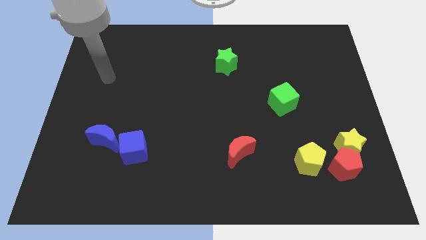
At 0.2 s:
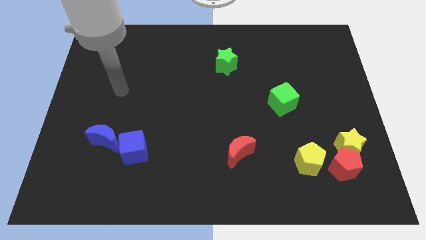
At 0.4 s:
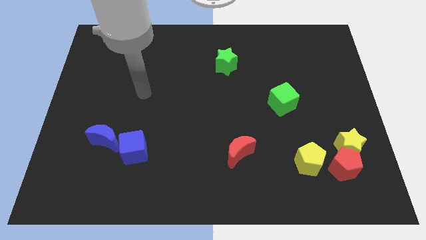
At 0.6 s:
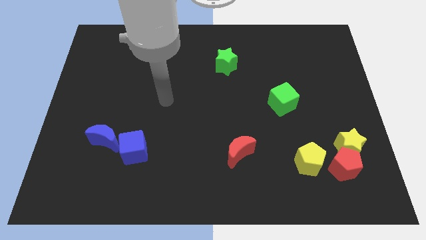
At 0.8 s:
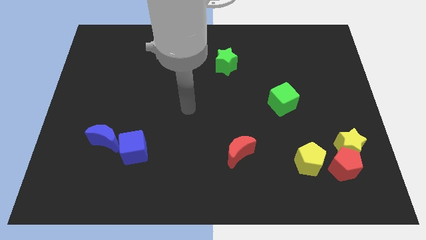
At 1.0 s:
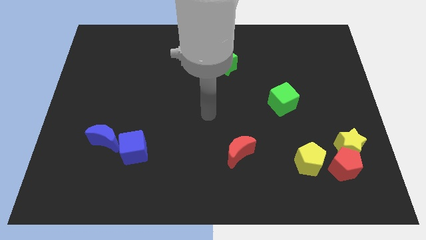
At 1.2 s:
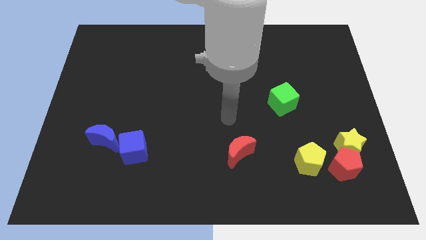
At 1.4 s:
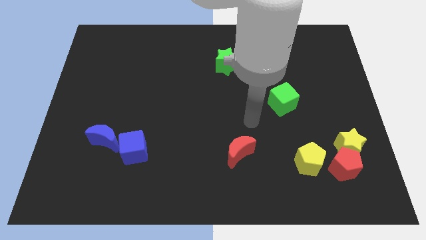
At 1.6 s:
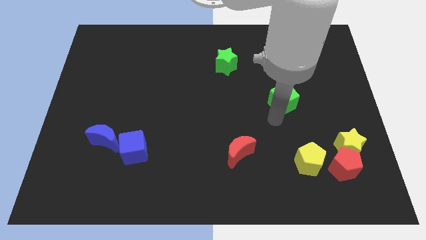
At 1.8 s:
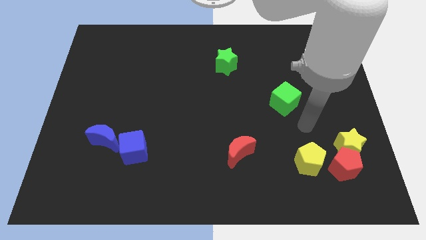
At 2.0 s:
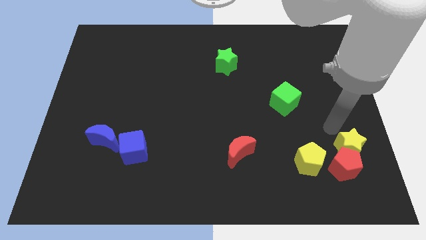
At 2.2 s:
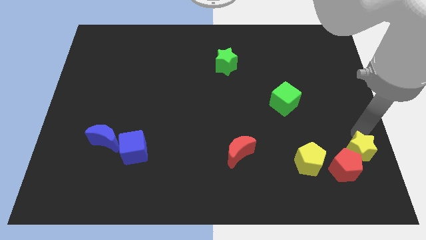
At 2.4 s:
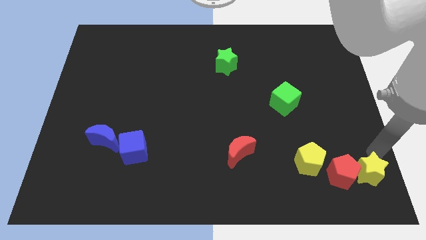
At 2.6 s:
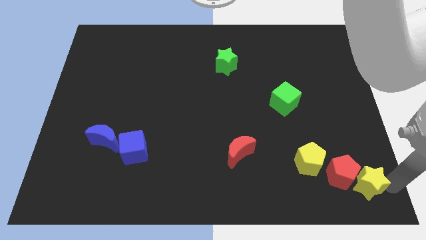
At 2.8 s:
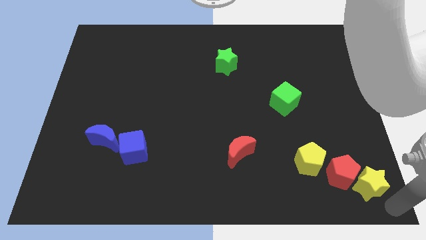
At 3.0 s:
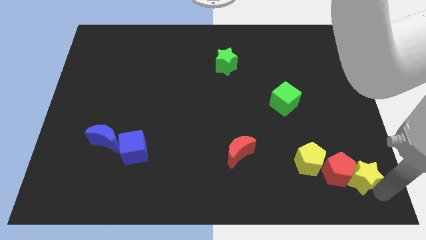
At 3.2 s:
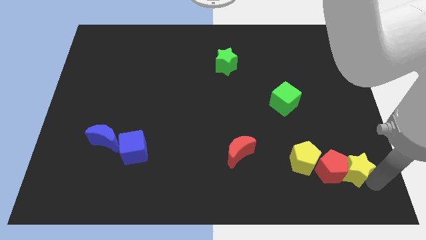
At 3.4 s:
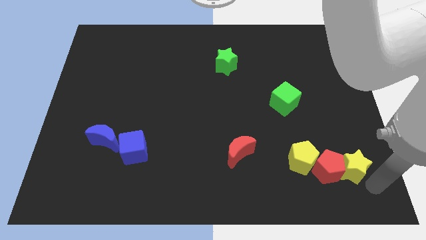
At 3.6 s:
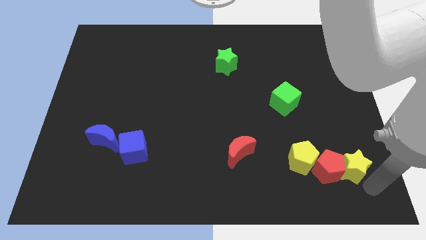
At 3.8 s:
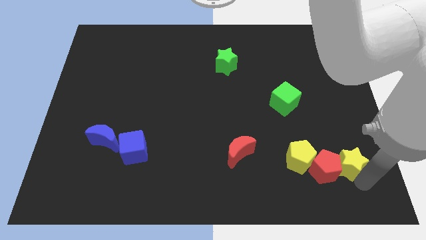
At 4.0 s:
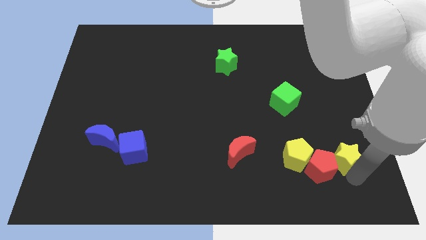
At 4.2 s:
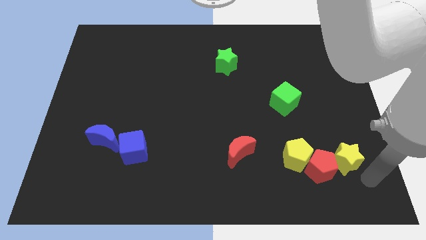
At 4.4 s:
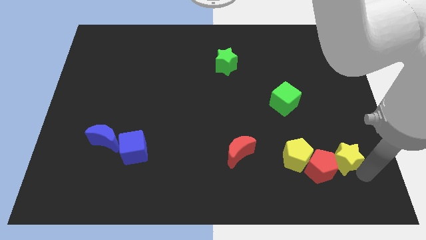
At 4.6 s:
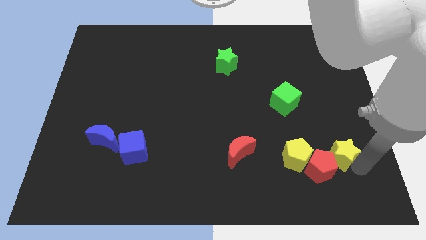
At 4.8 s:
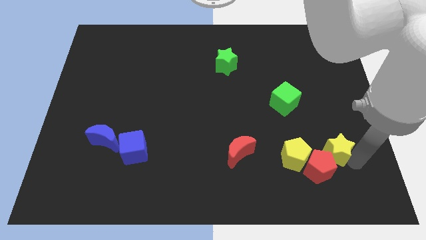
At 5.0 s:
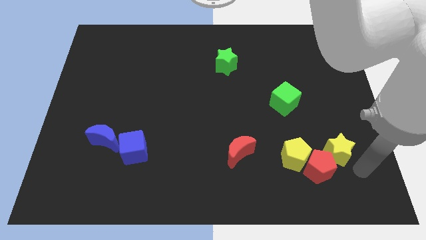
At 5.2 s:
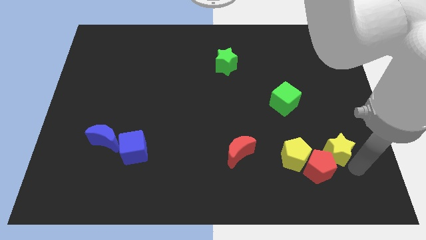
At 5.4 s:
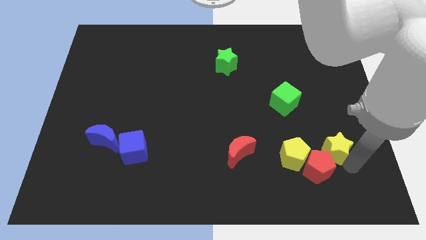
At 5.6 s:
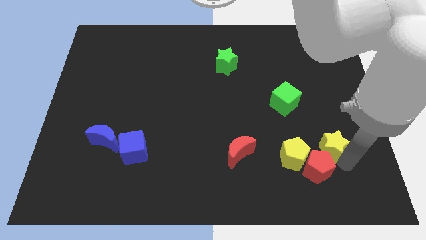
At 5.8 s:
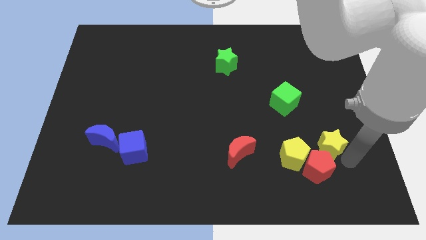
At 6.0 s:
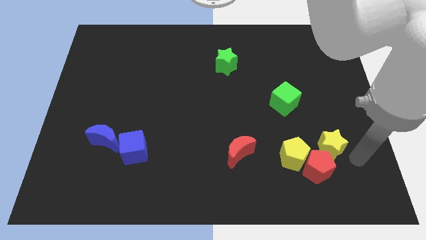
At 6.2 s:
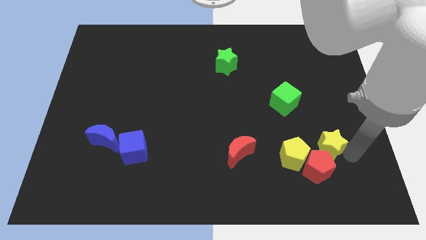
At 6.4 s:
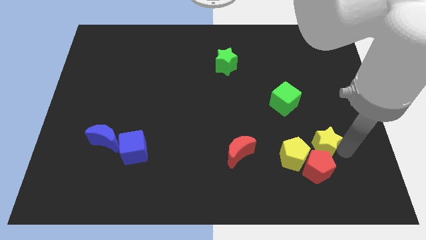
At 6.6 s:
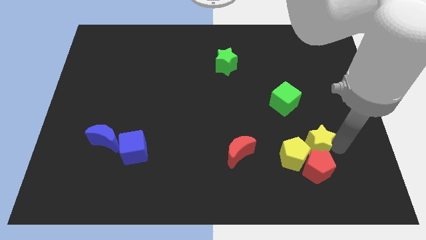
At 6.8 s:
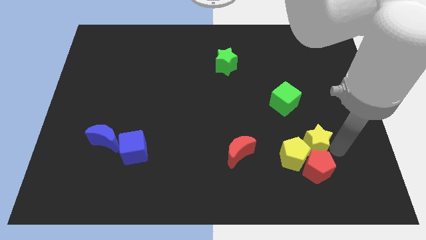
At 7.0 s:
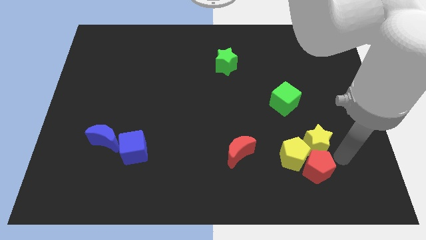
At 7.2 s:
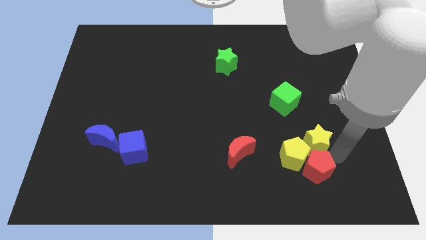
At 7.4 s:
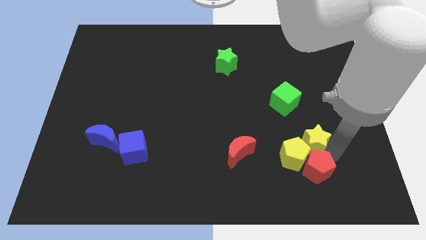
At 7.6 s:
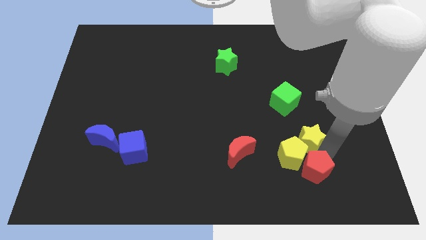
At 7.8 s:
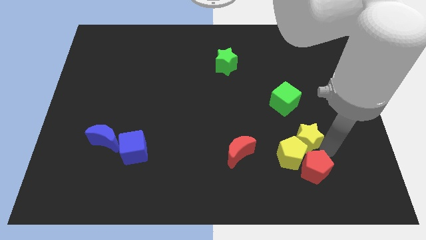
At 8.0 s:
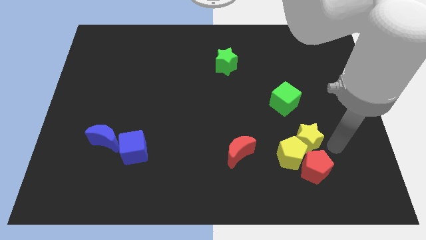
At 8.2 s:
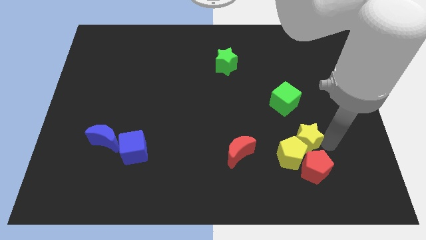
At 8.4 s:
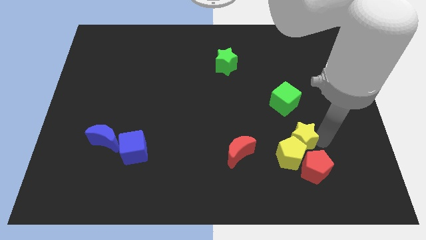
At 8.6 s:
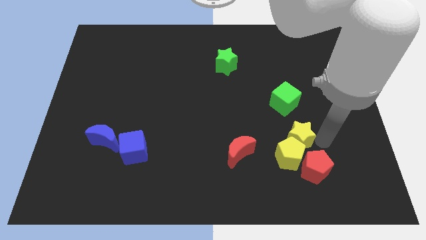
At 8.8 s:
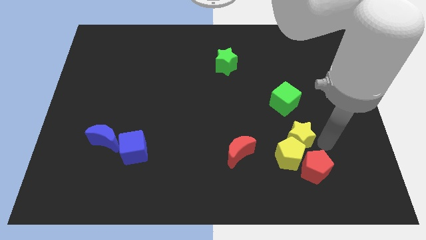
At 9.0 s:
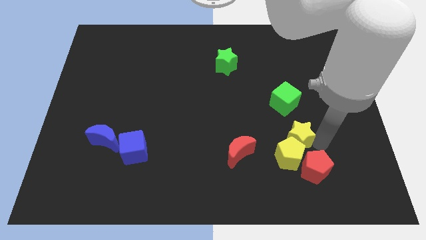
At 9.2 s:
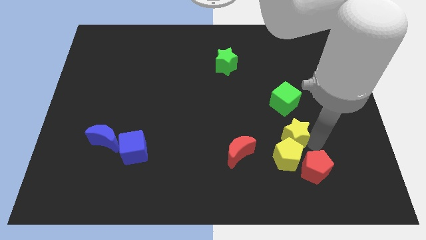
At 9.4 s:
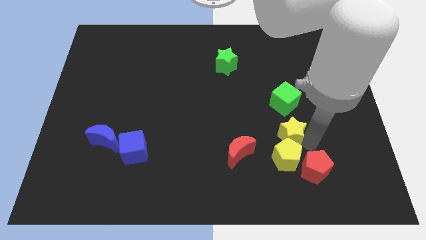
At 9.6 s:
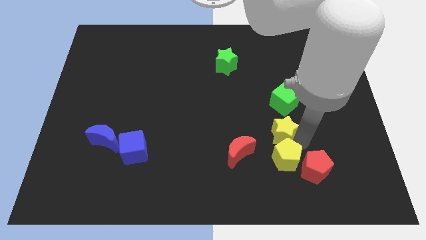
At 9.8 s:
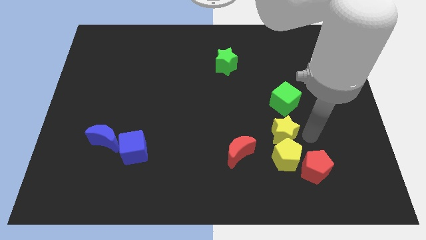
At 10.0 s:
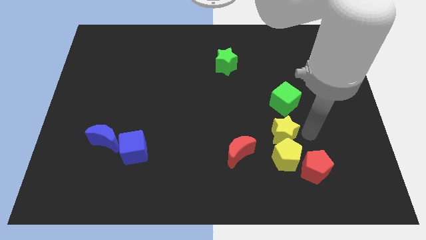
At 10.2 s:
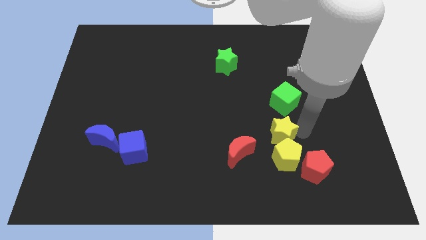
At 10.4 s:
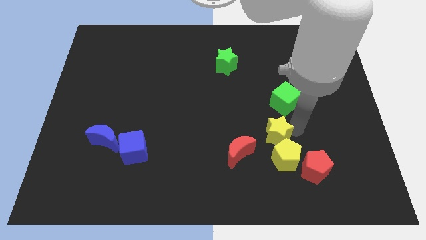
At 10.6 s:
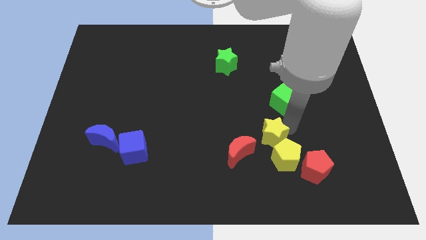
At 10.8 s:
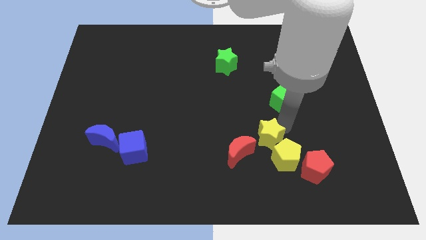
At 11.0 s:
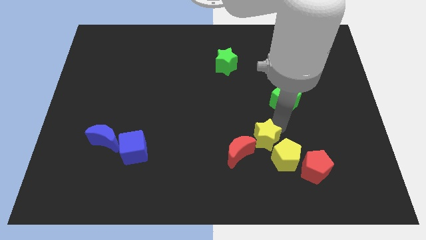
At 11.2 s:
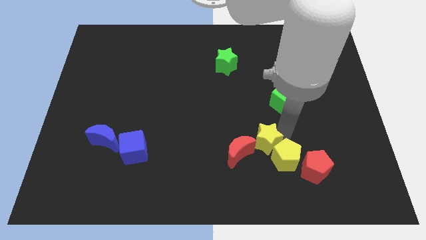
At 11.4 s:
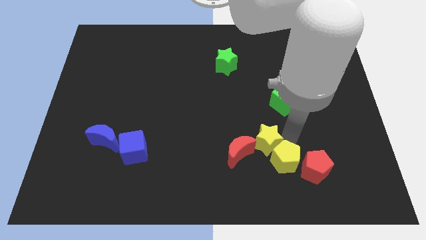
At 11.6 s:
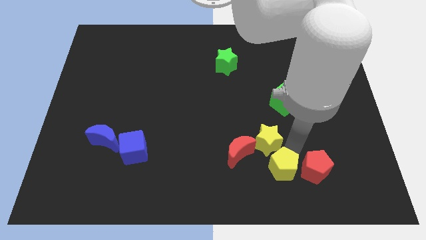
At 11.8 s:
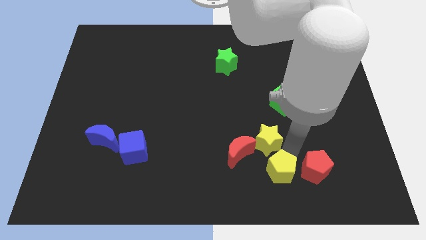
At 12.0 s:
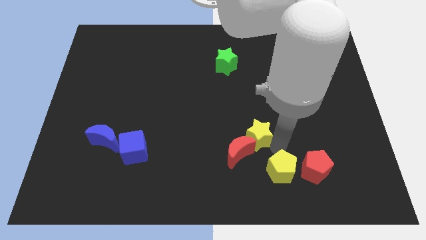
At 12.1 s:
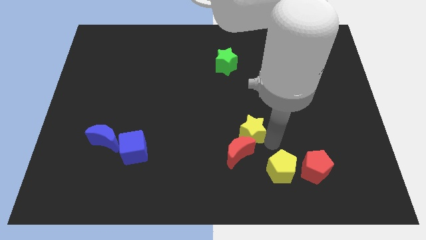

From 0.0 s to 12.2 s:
push the yellow star left

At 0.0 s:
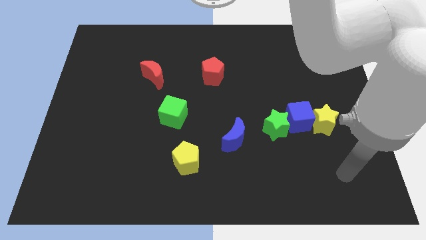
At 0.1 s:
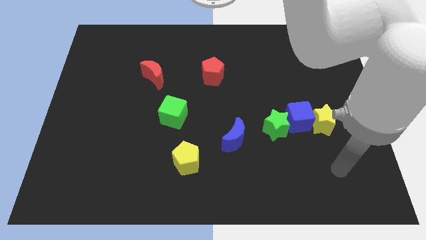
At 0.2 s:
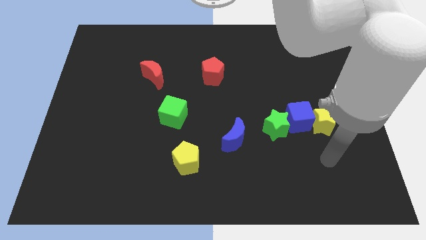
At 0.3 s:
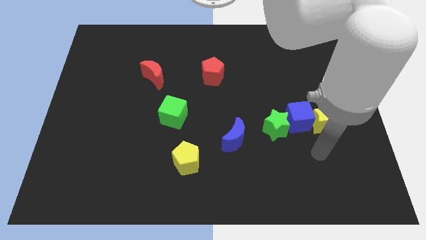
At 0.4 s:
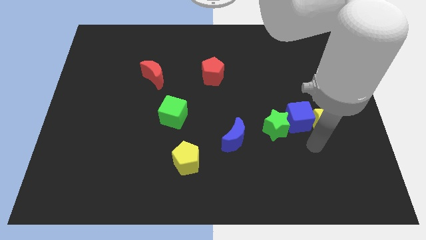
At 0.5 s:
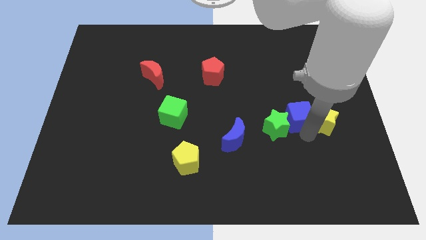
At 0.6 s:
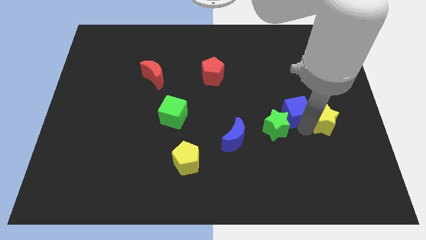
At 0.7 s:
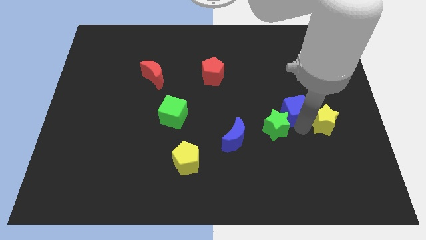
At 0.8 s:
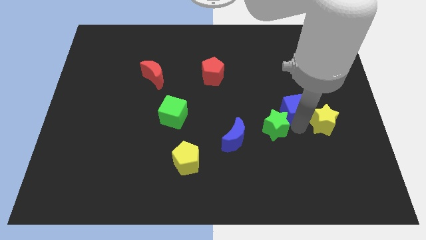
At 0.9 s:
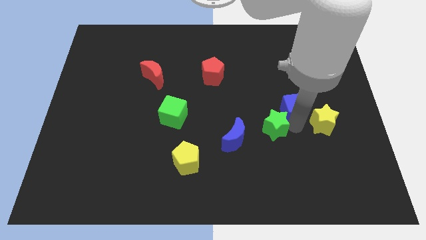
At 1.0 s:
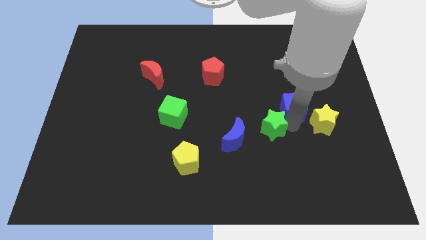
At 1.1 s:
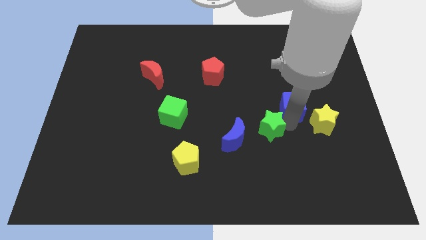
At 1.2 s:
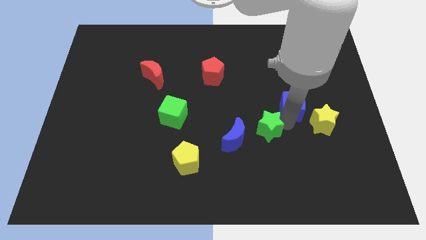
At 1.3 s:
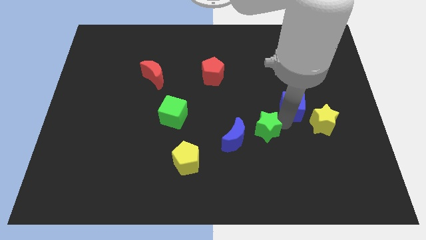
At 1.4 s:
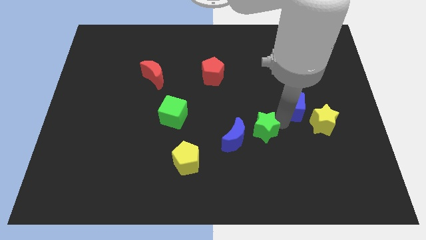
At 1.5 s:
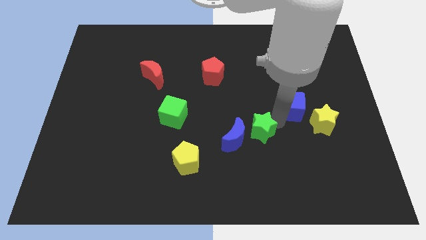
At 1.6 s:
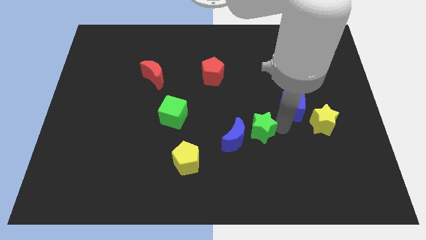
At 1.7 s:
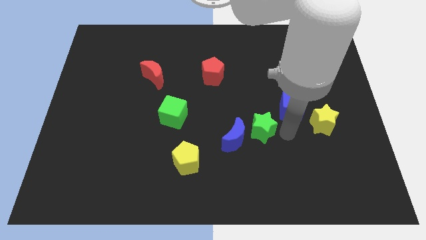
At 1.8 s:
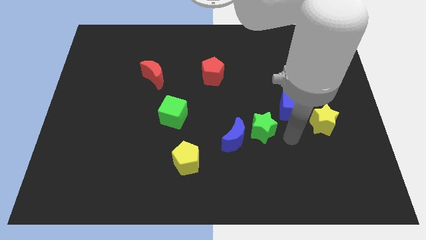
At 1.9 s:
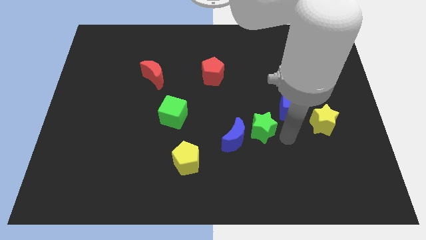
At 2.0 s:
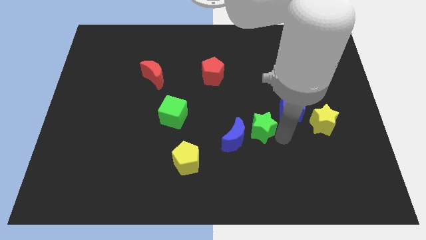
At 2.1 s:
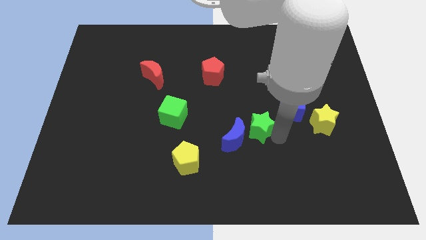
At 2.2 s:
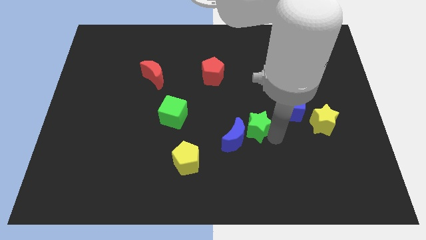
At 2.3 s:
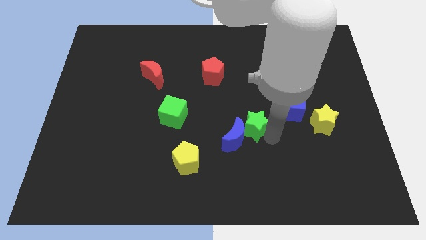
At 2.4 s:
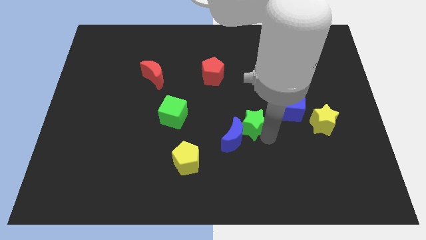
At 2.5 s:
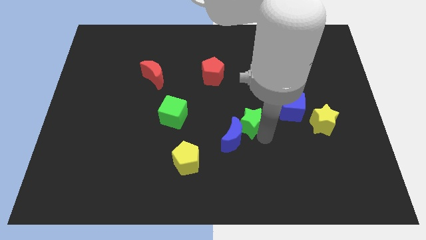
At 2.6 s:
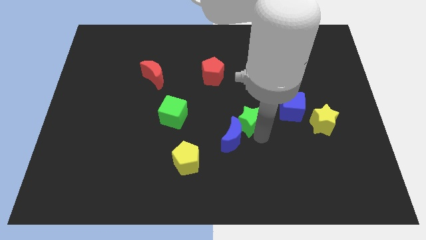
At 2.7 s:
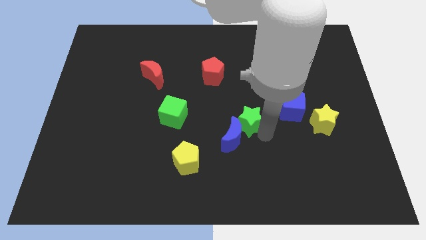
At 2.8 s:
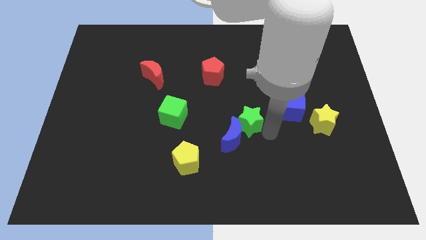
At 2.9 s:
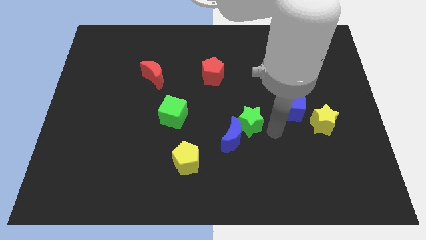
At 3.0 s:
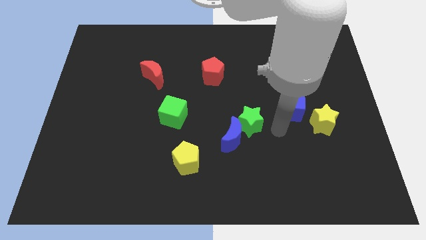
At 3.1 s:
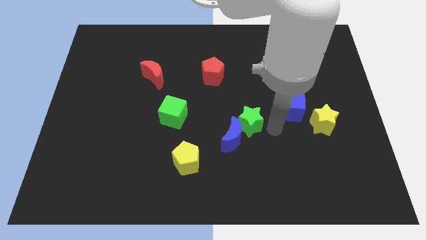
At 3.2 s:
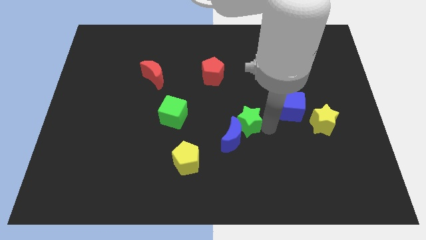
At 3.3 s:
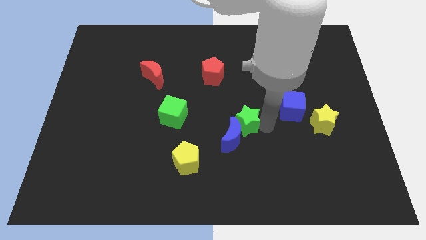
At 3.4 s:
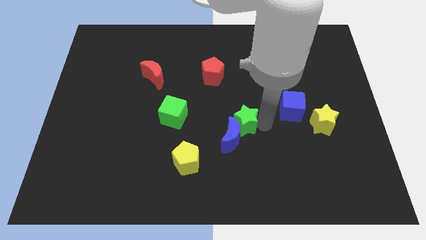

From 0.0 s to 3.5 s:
slide the green star somewhat left
